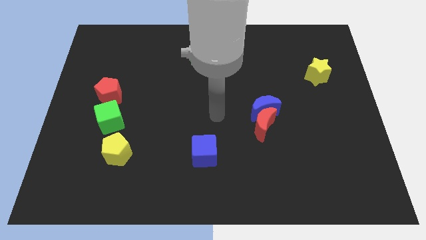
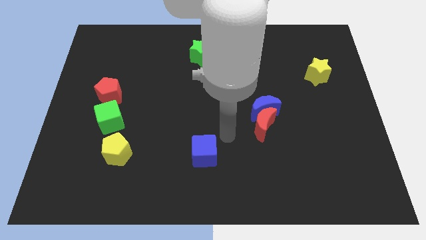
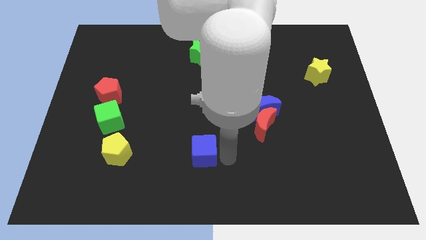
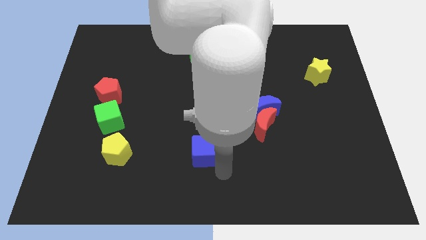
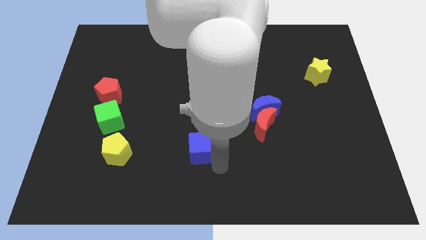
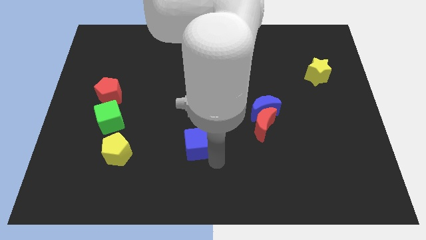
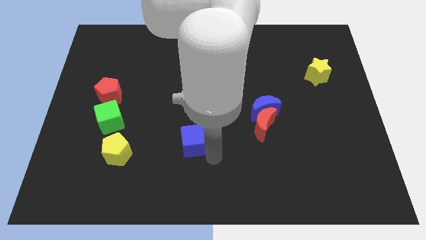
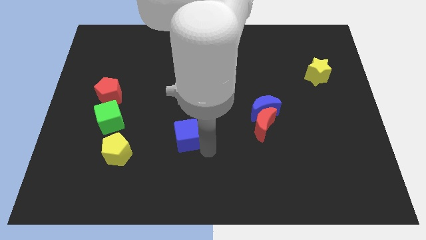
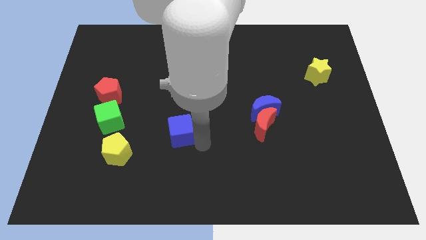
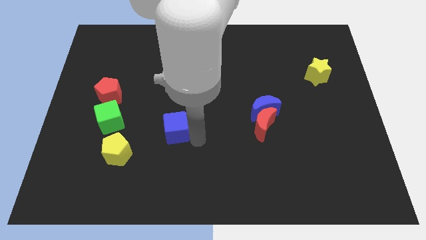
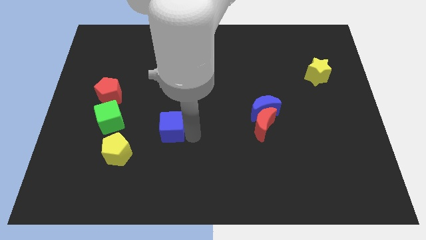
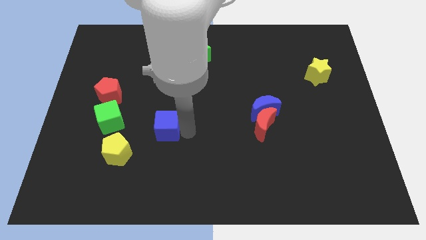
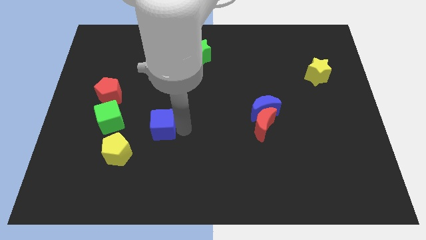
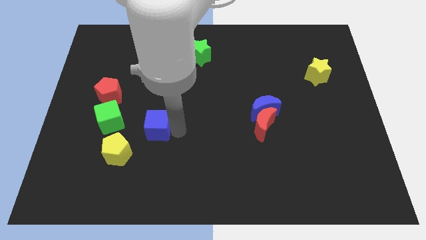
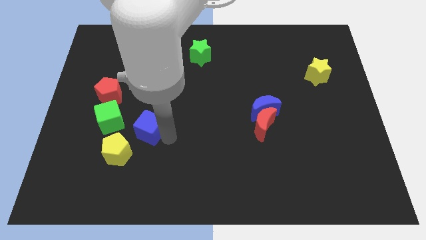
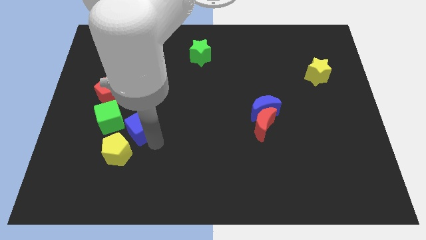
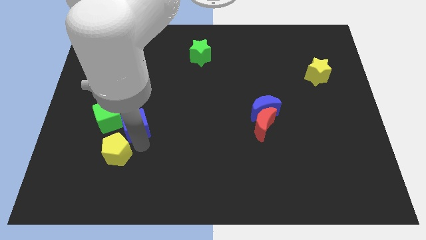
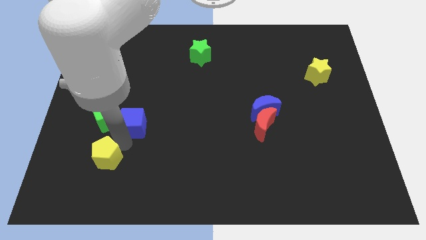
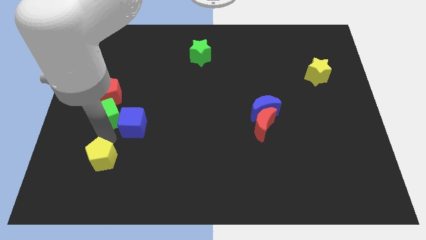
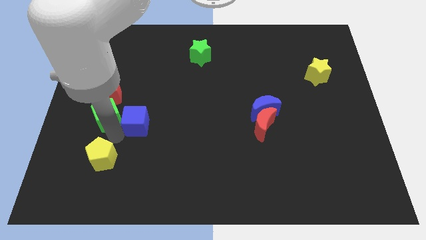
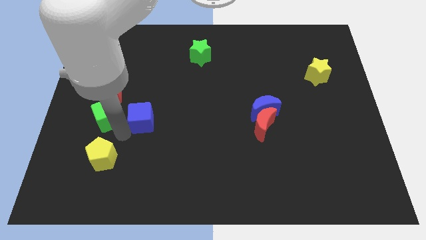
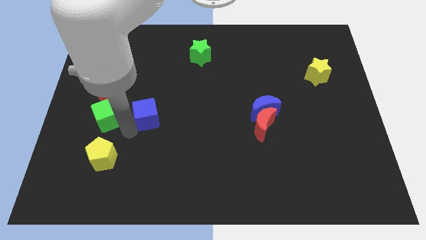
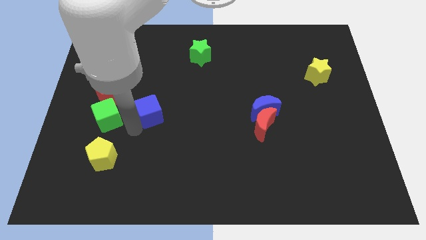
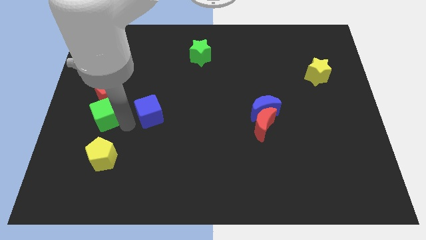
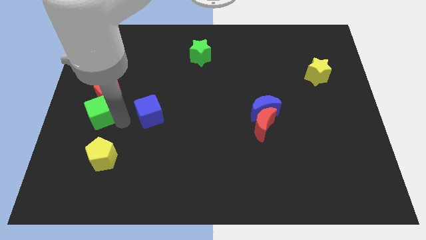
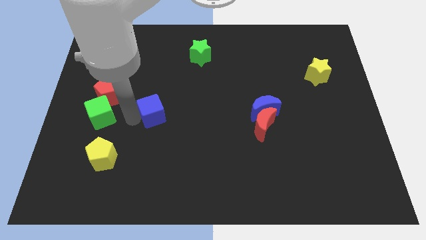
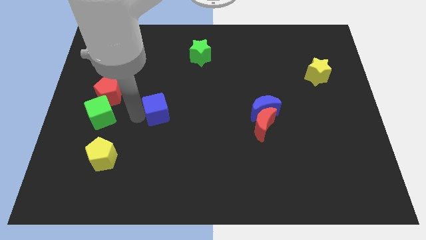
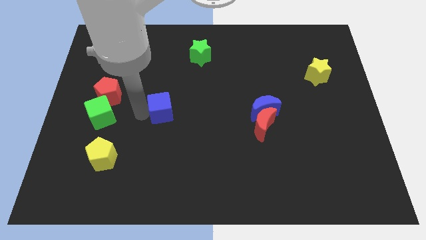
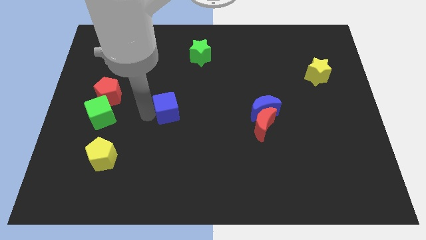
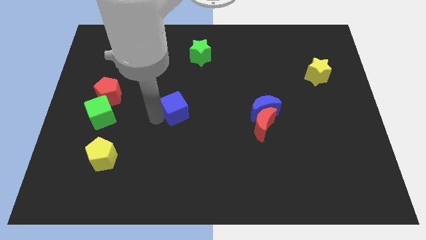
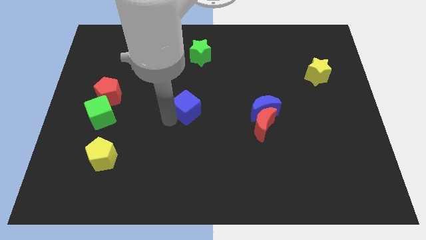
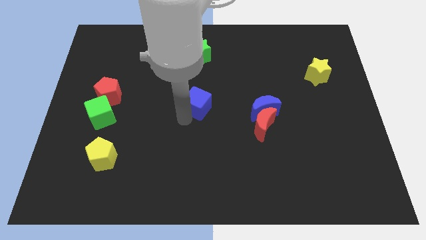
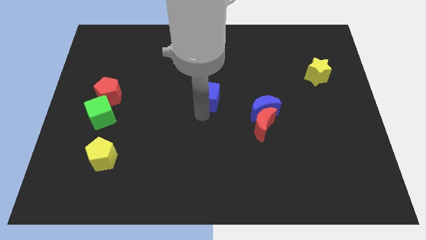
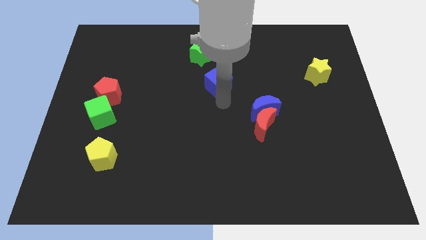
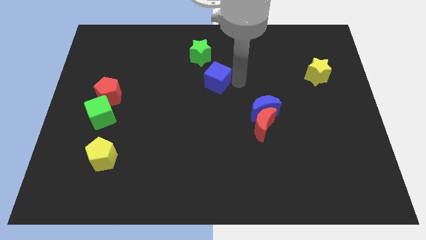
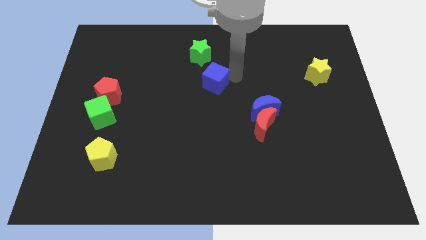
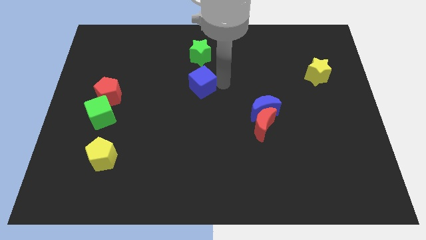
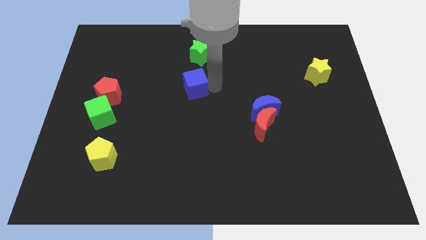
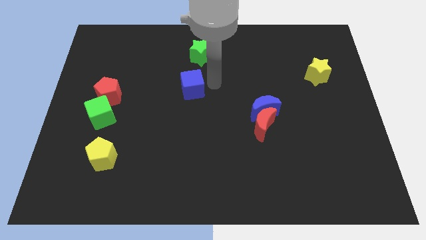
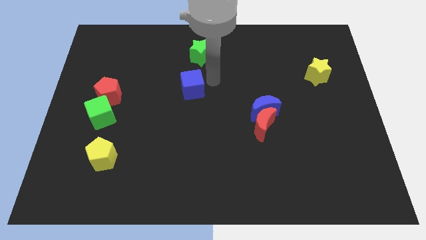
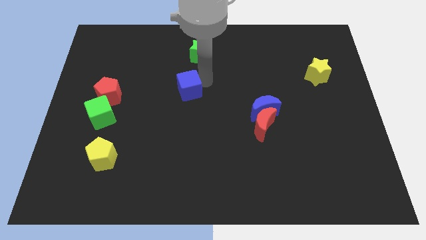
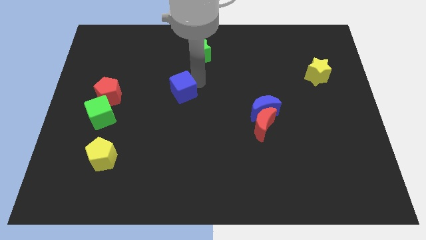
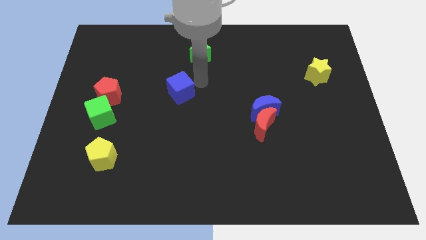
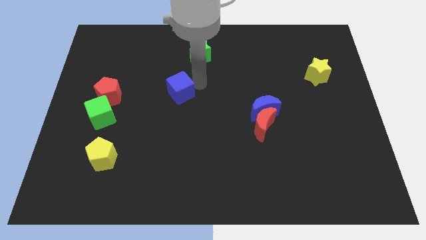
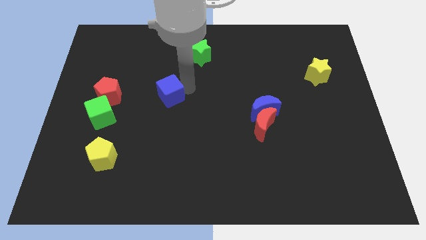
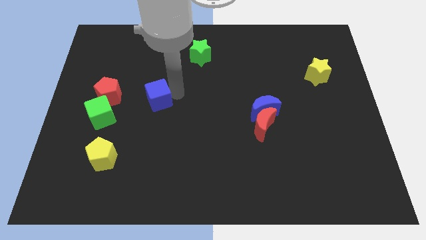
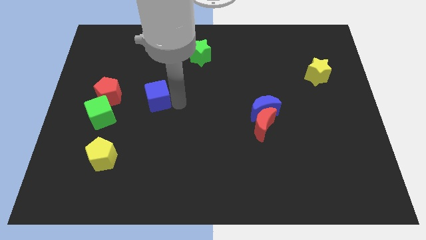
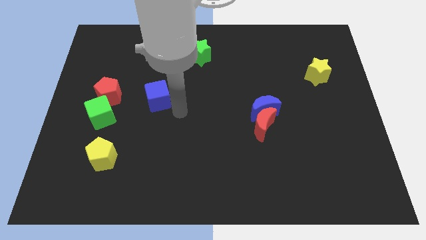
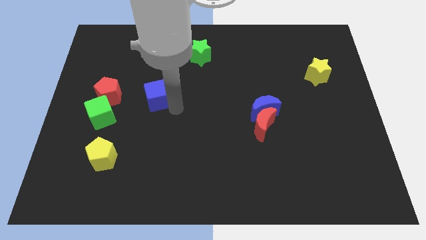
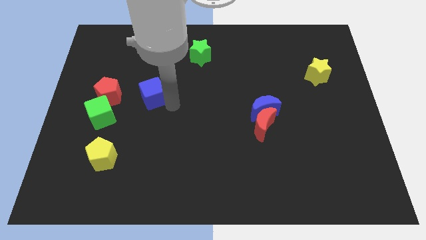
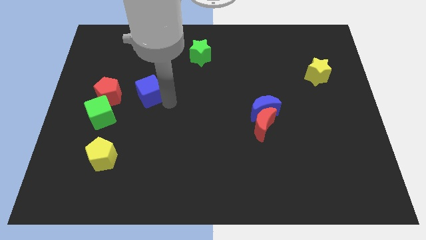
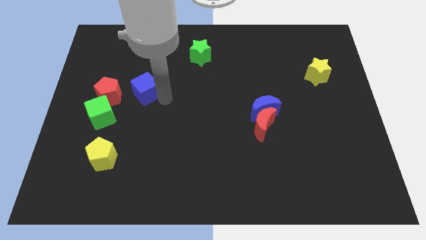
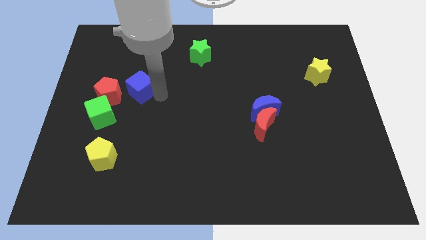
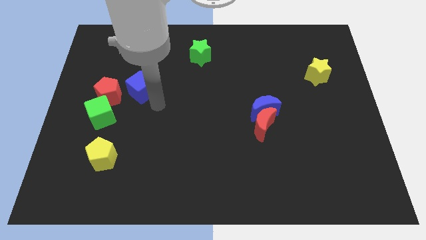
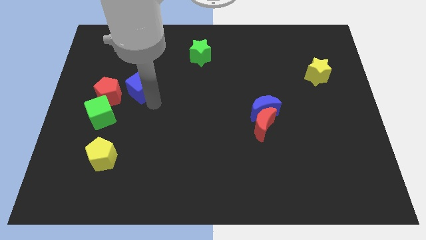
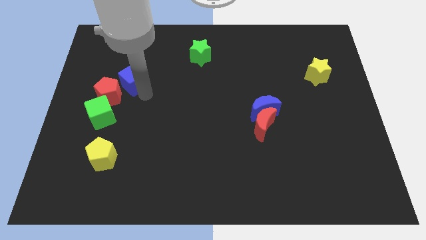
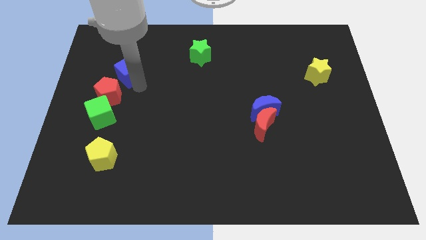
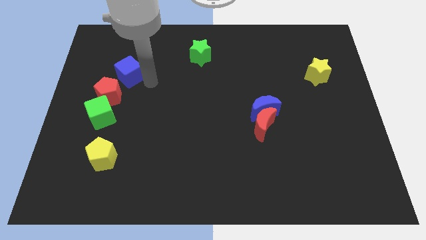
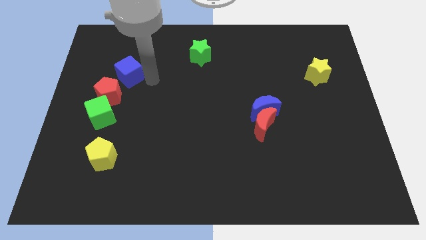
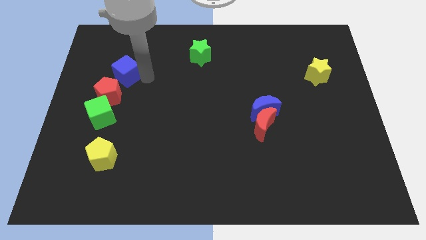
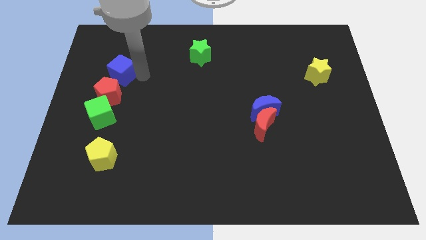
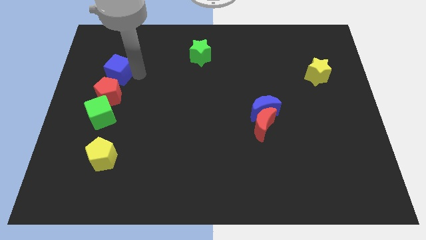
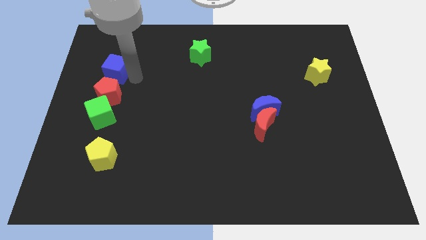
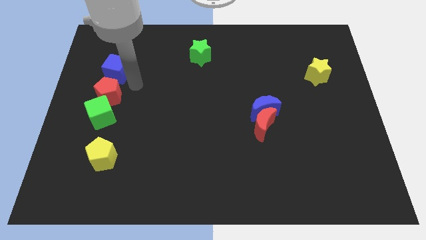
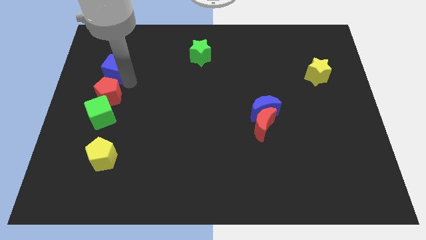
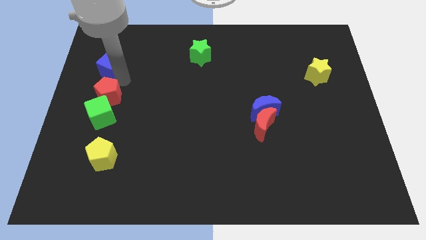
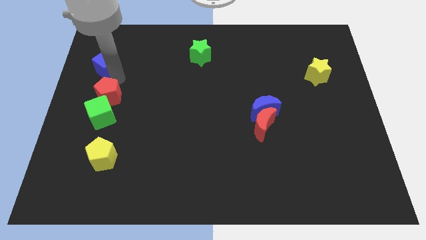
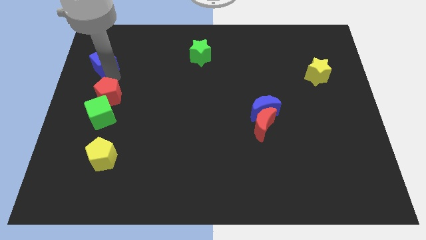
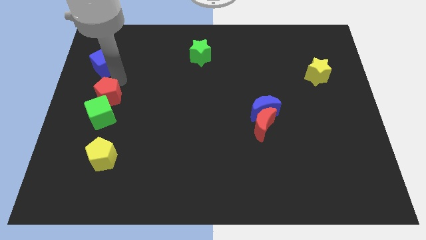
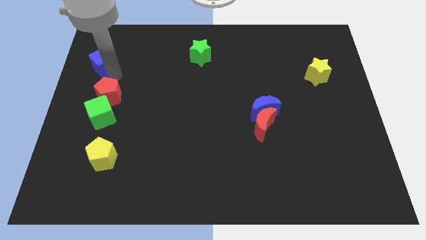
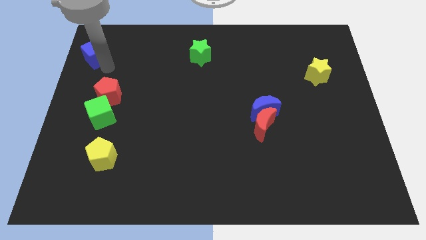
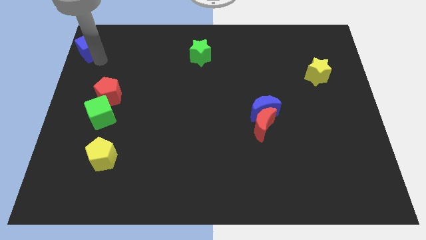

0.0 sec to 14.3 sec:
push the blue cube to the top left of the board
